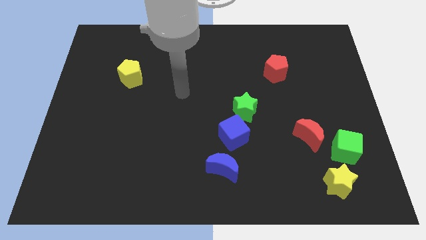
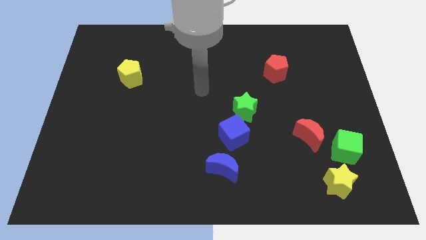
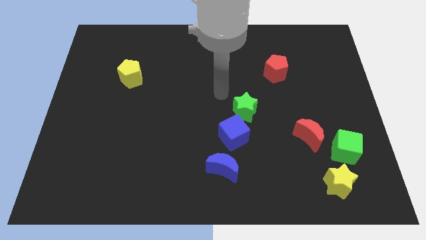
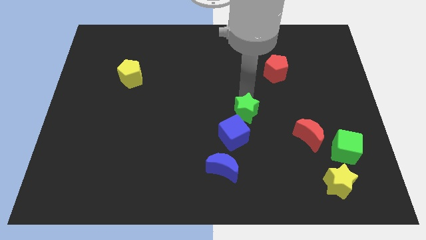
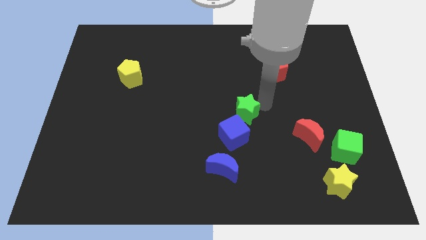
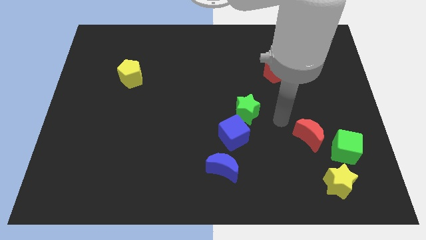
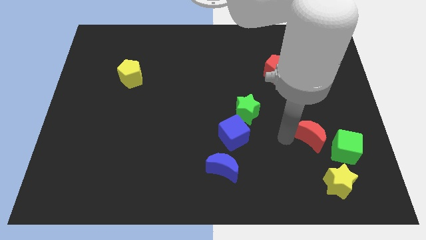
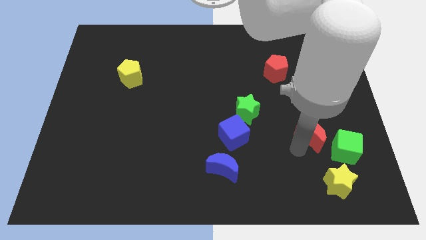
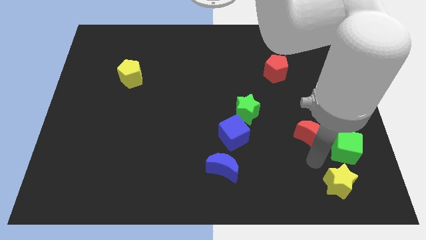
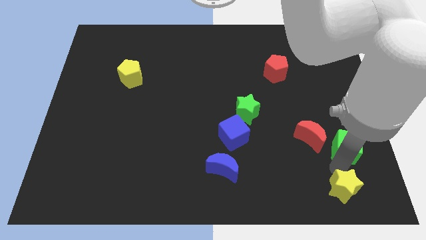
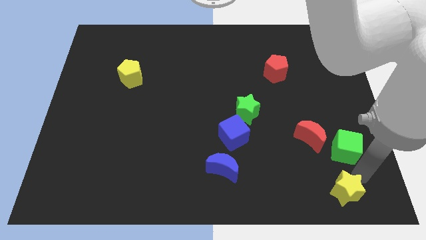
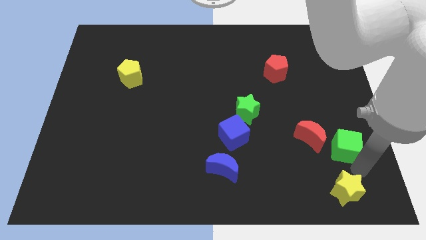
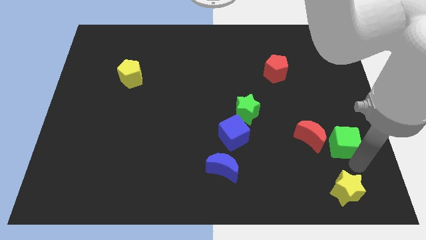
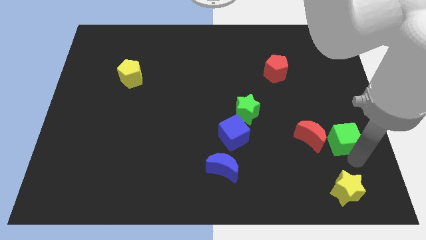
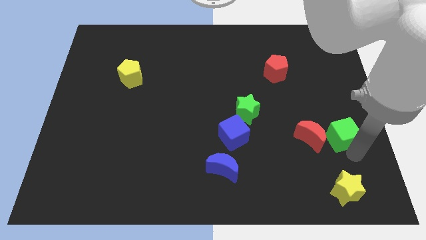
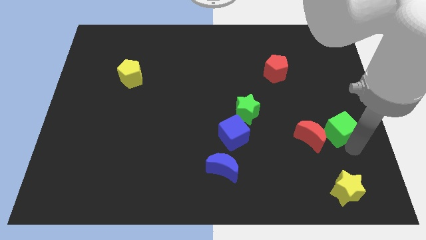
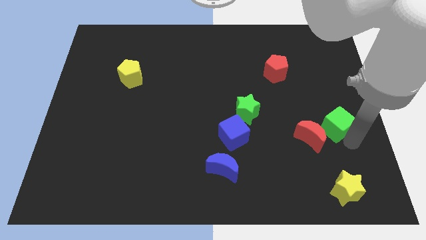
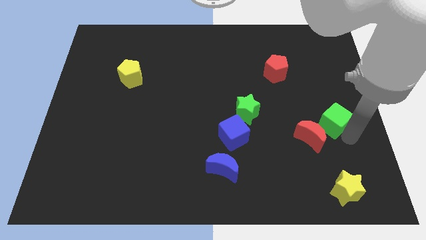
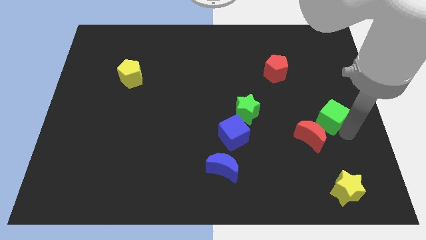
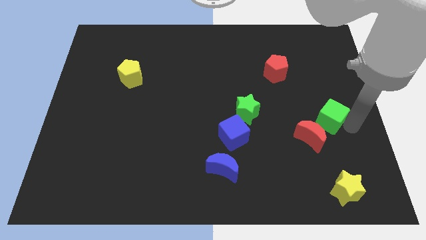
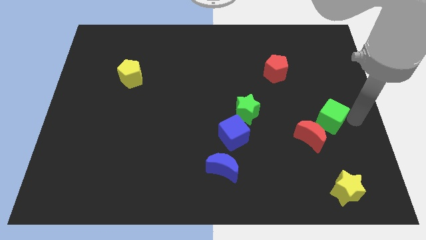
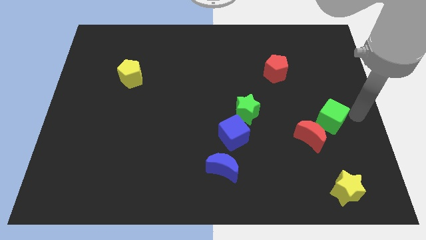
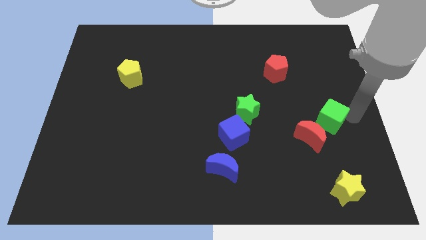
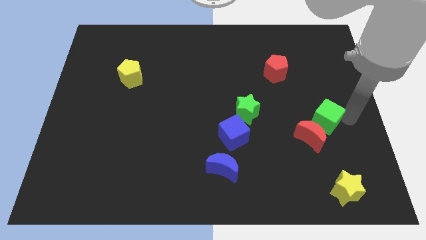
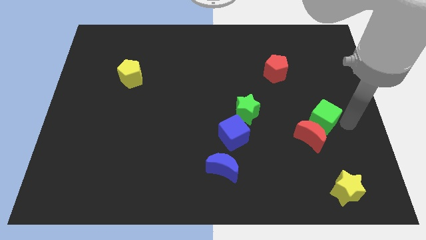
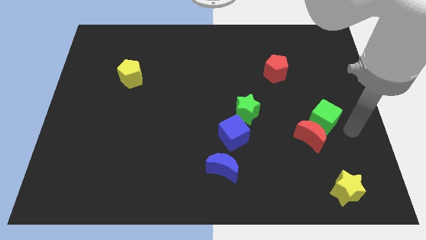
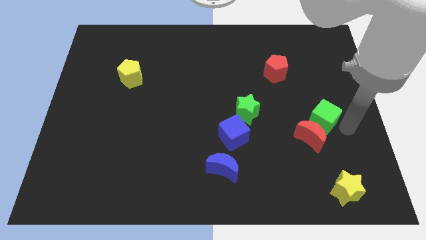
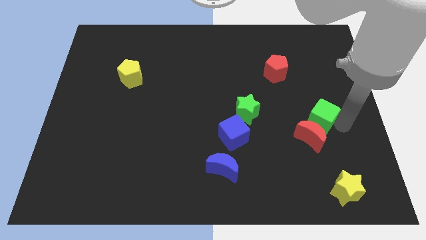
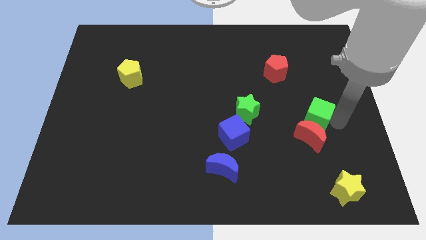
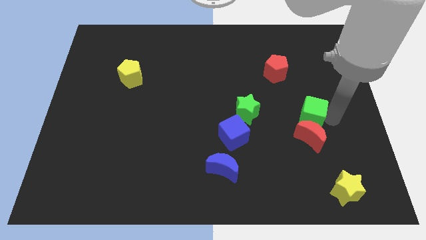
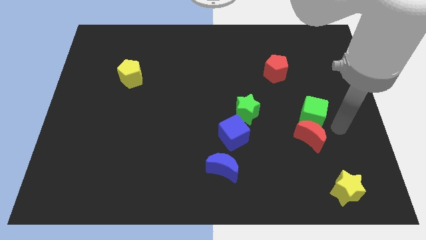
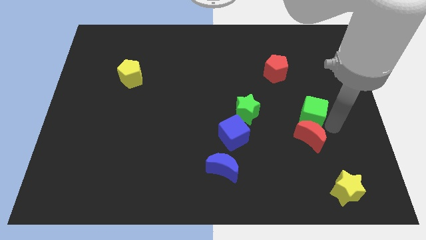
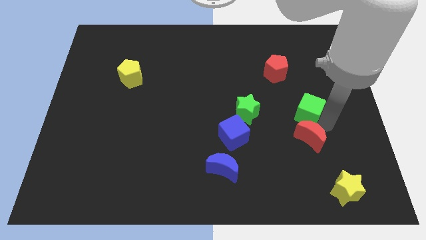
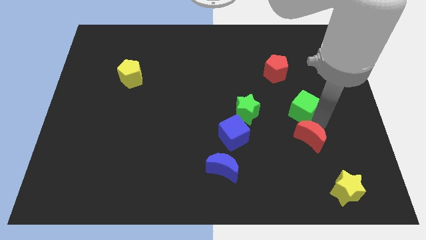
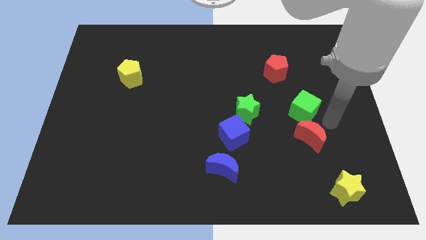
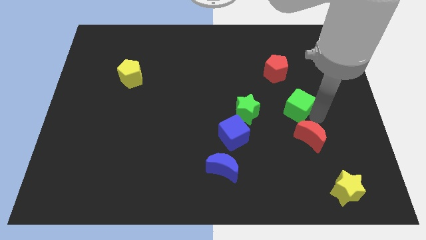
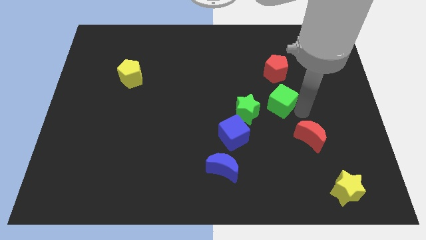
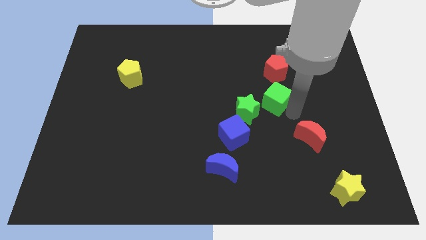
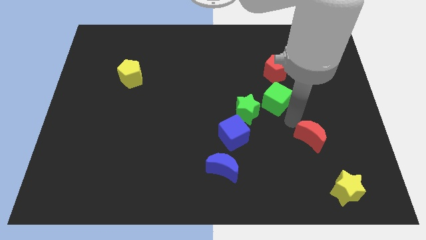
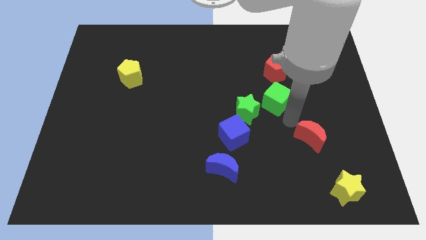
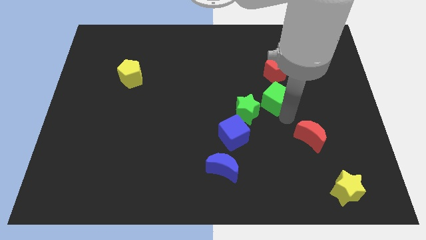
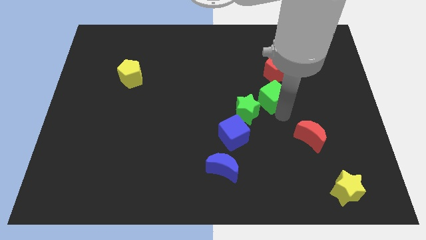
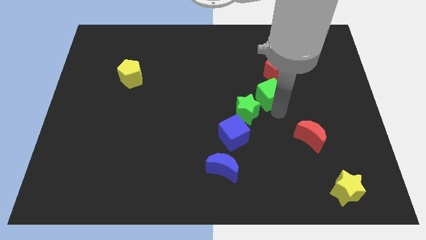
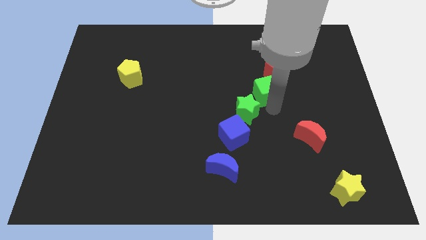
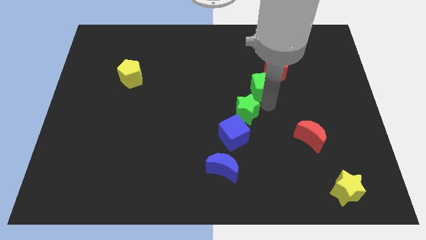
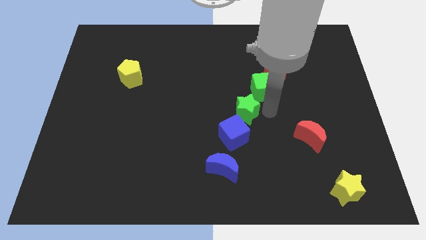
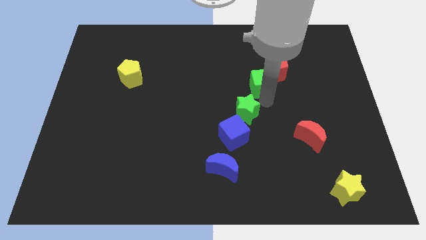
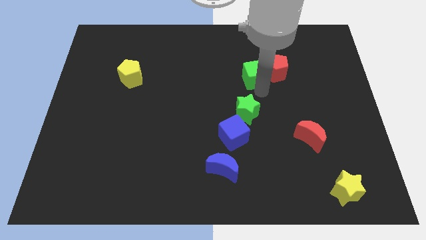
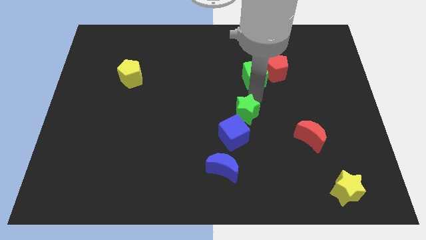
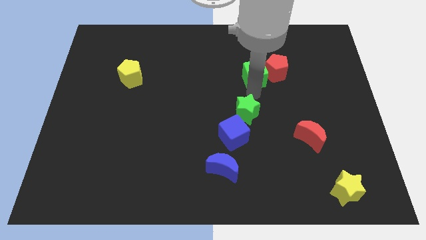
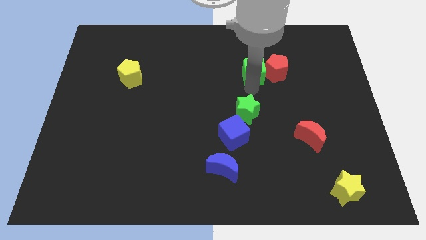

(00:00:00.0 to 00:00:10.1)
move the green cube diagonally up and to the left of the red pentagon

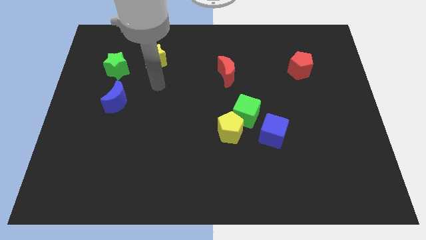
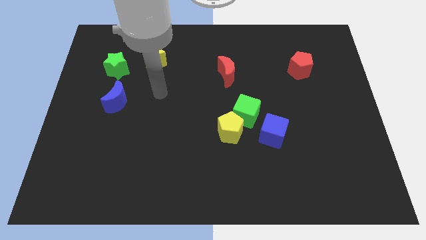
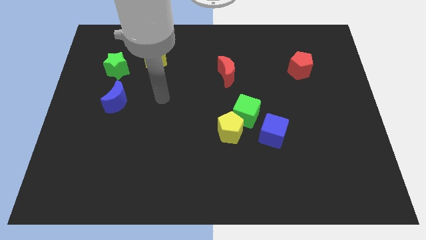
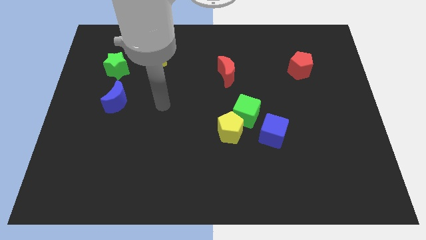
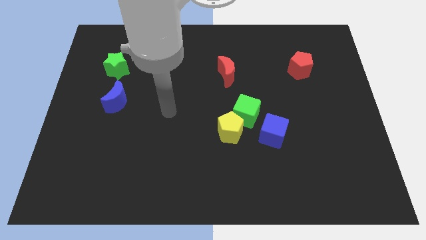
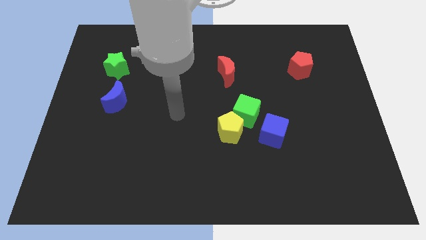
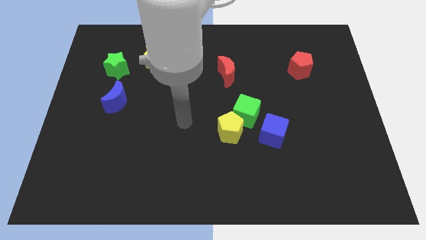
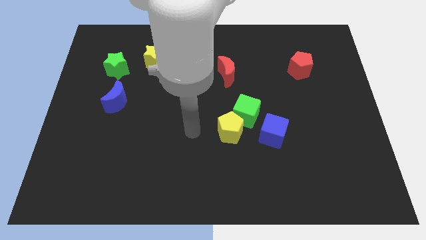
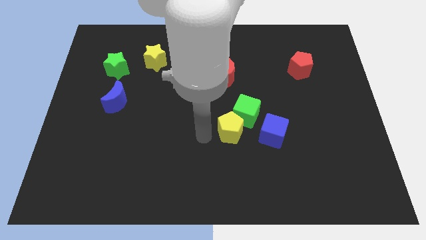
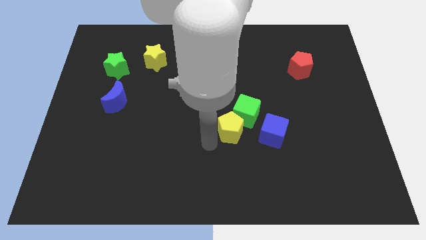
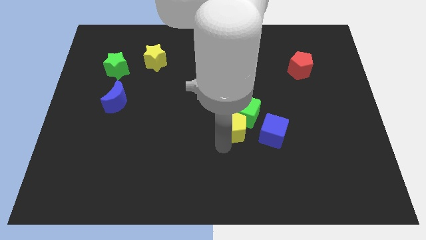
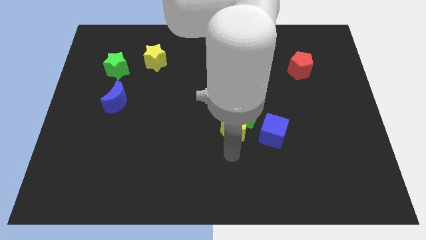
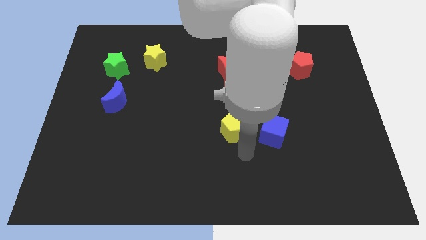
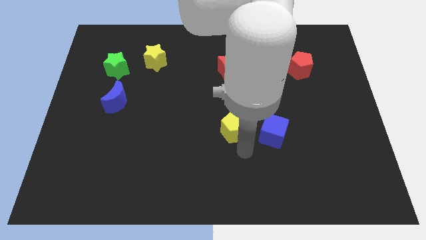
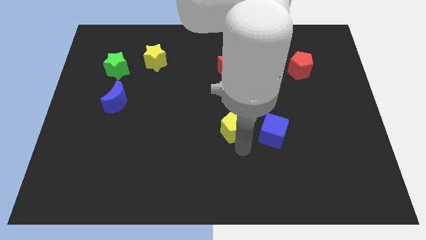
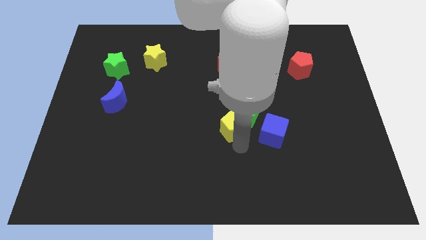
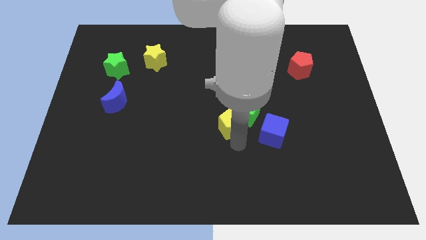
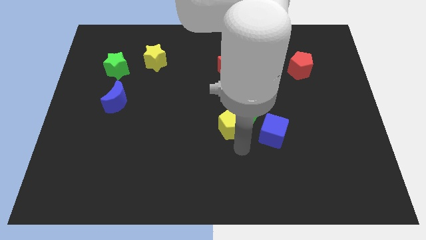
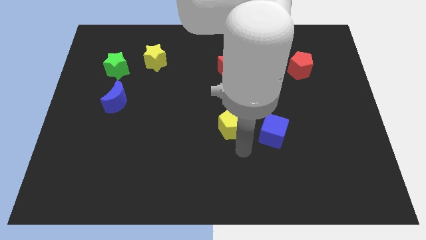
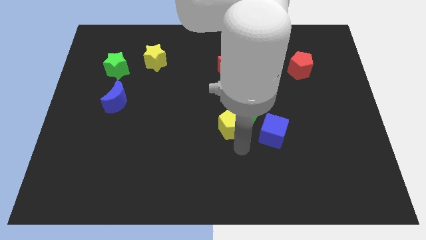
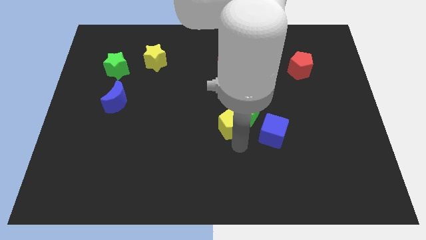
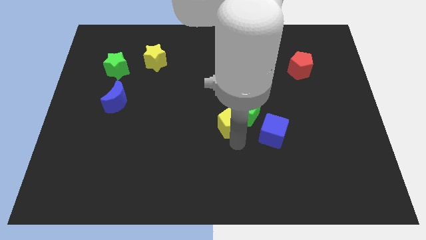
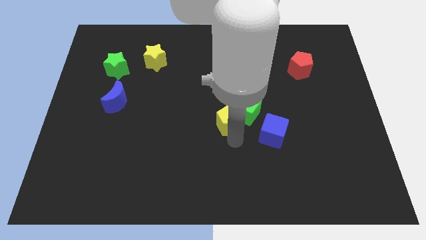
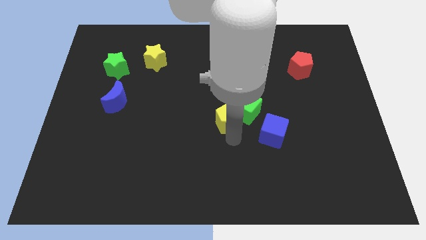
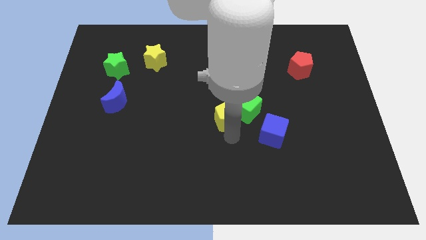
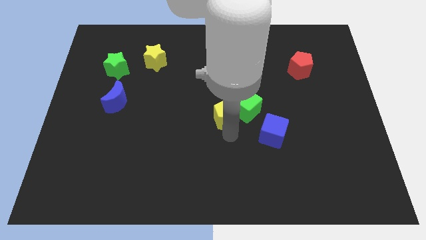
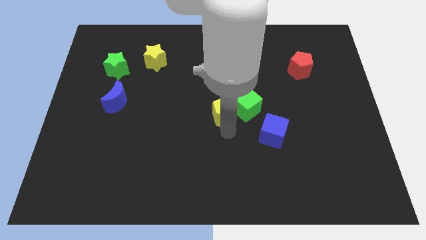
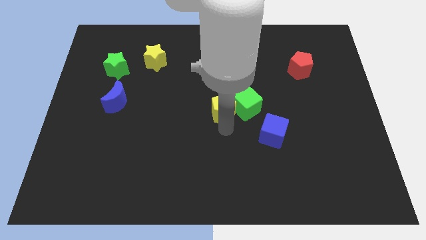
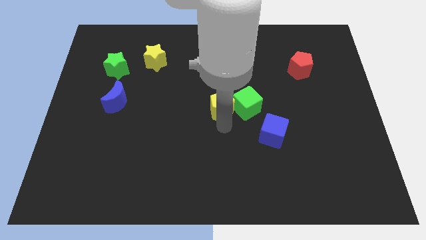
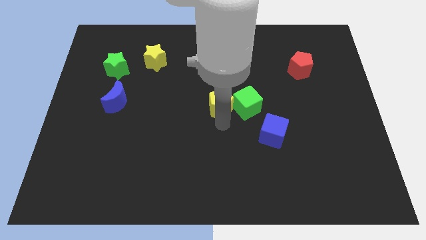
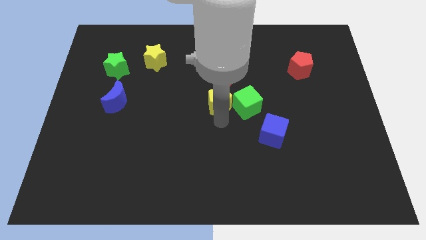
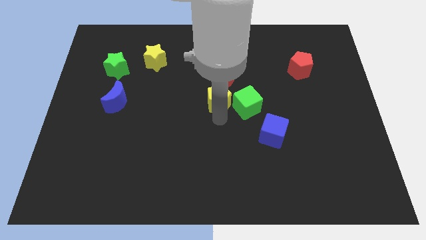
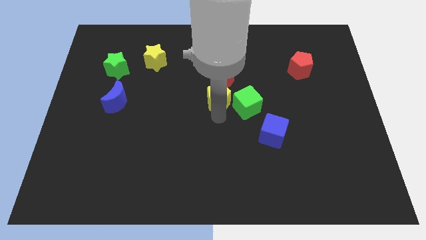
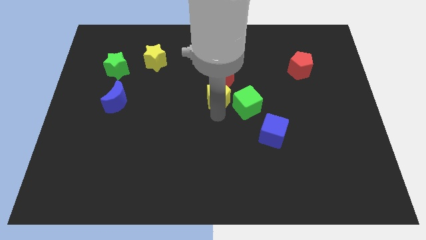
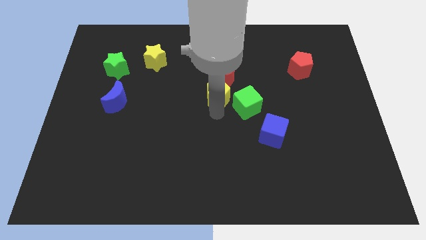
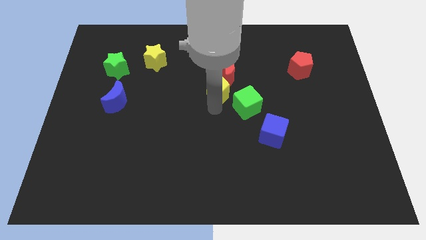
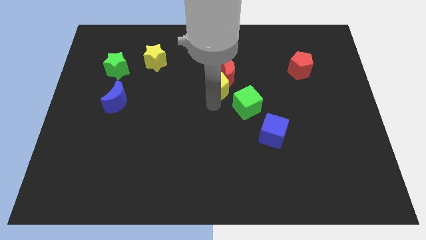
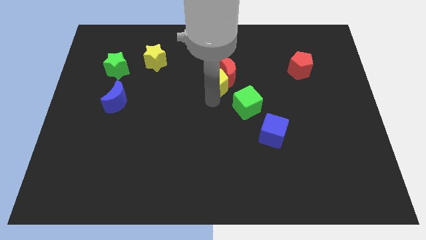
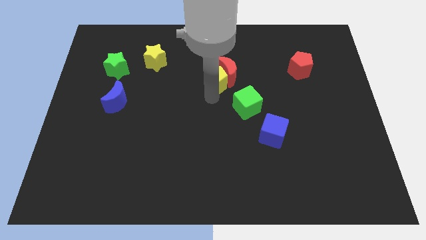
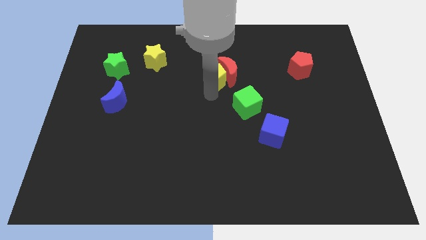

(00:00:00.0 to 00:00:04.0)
put the yellow pentagon diagonally up and to the left of the red moon
